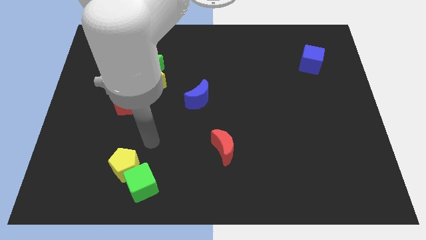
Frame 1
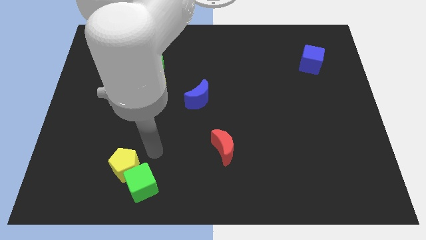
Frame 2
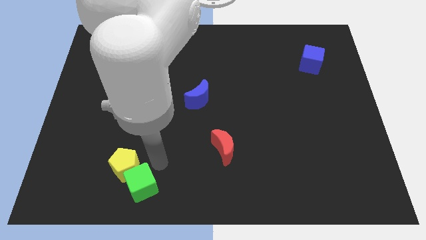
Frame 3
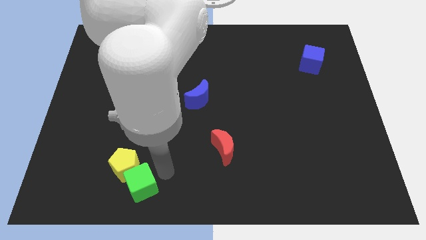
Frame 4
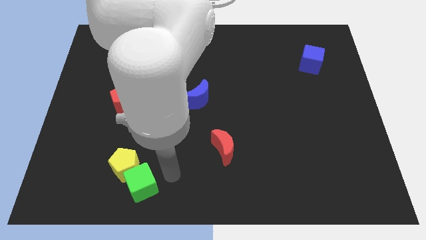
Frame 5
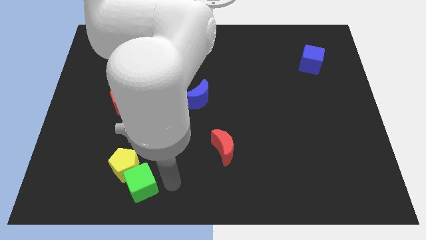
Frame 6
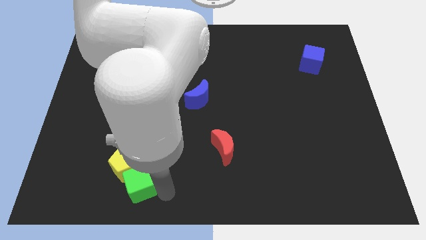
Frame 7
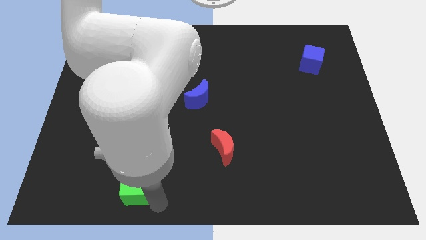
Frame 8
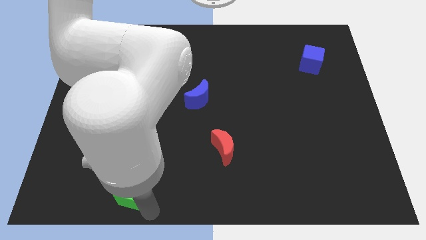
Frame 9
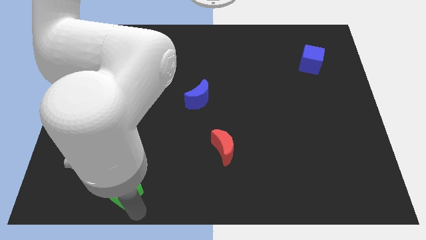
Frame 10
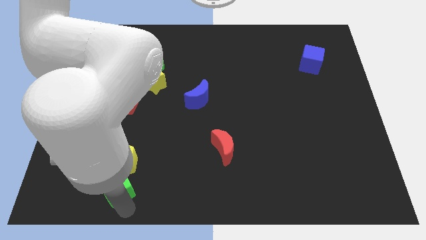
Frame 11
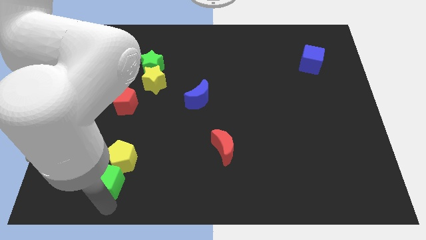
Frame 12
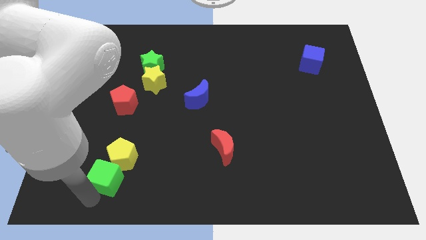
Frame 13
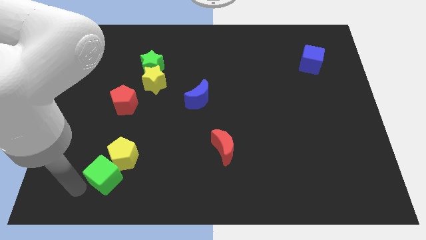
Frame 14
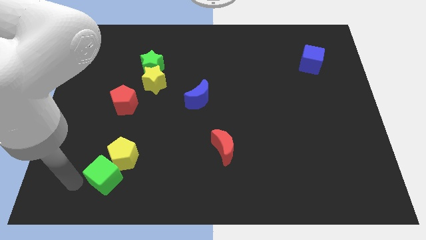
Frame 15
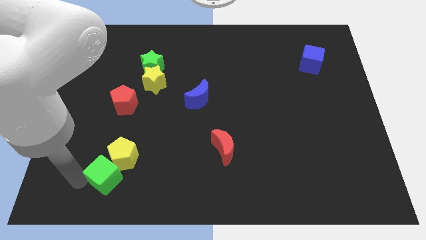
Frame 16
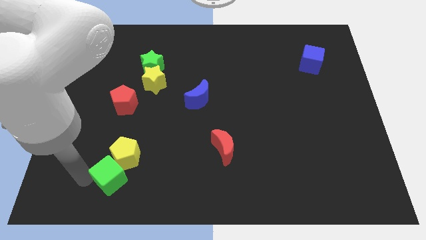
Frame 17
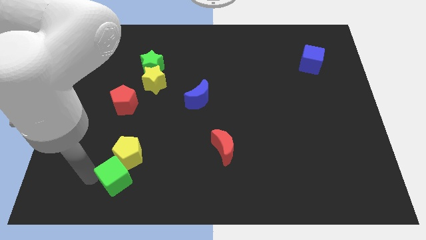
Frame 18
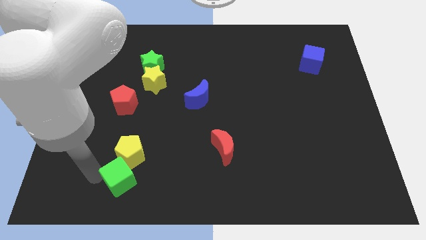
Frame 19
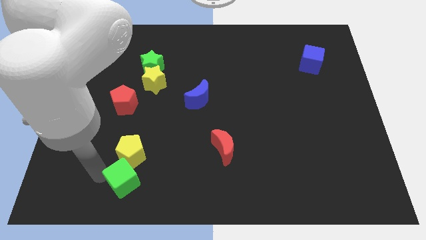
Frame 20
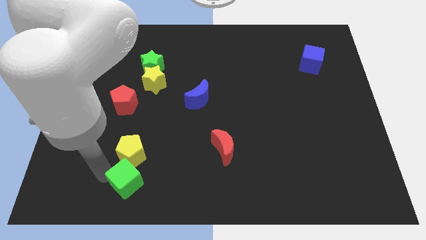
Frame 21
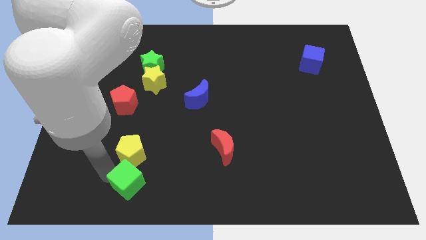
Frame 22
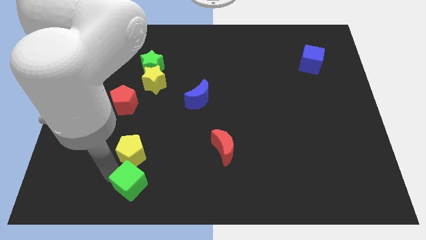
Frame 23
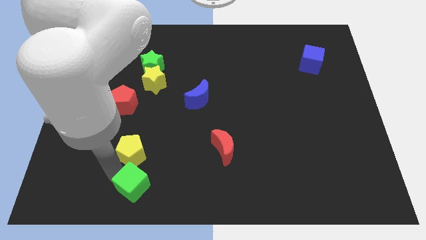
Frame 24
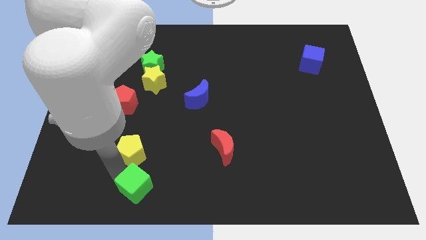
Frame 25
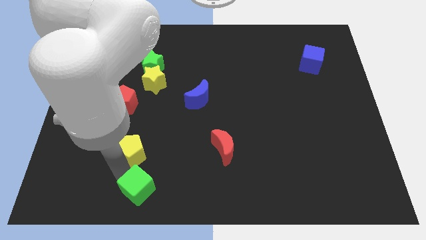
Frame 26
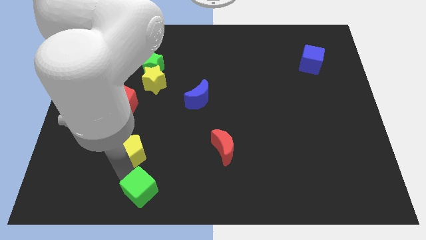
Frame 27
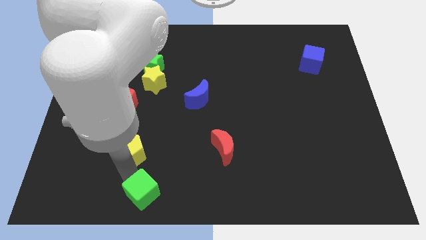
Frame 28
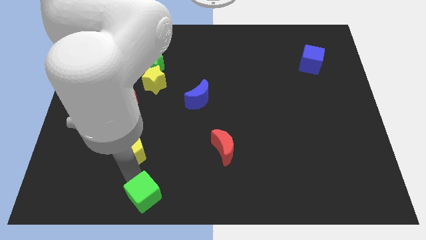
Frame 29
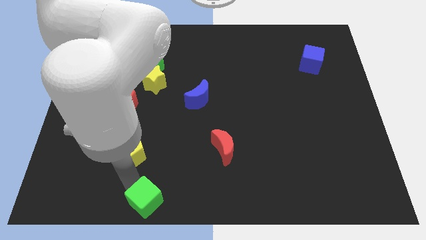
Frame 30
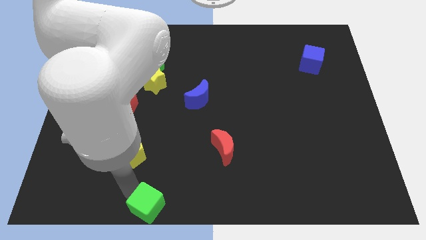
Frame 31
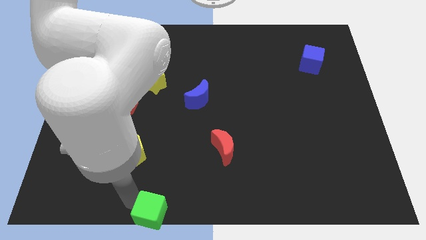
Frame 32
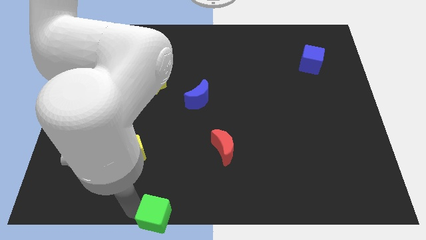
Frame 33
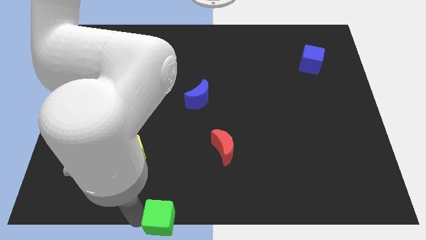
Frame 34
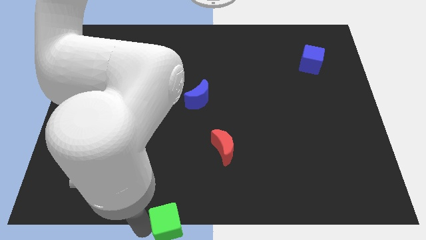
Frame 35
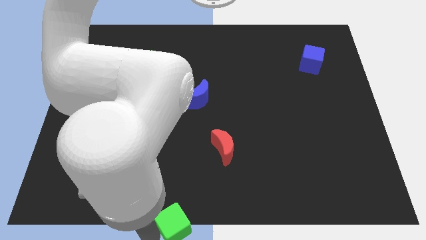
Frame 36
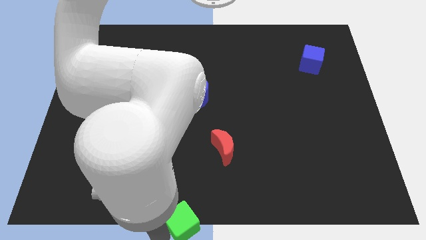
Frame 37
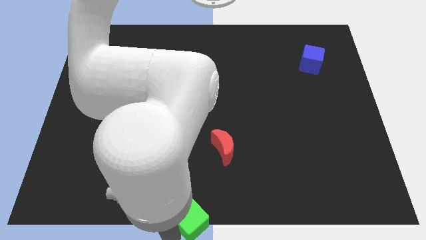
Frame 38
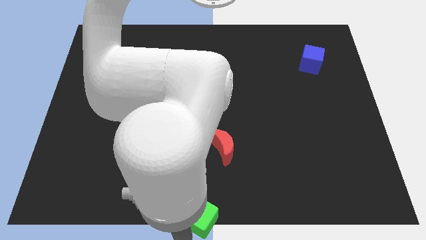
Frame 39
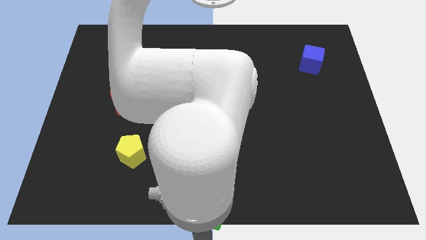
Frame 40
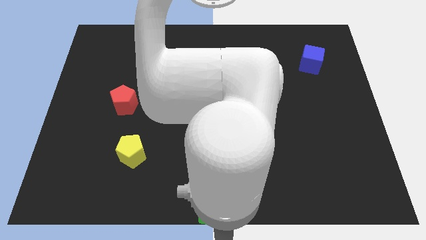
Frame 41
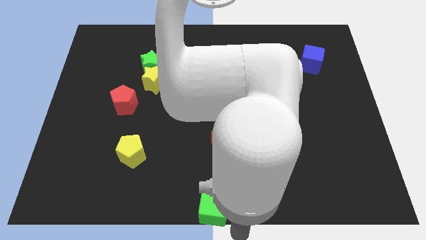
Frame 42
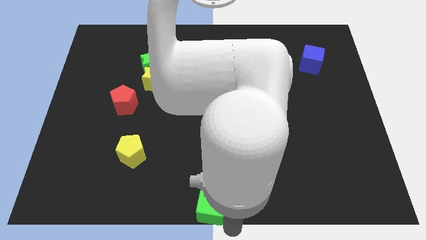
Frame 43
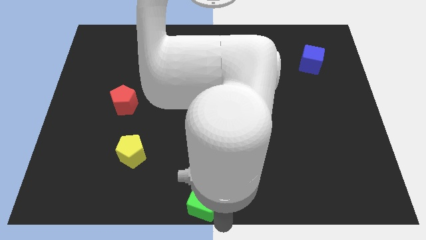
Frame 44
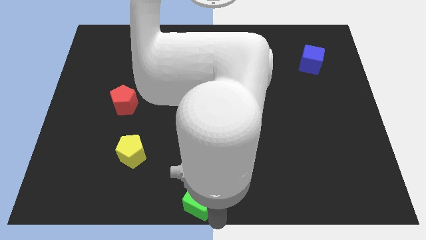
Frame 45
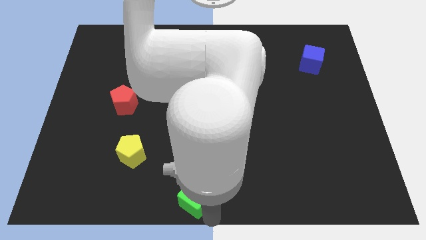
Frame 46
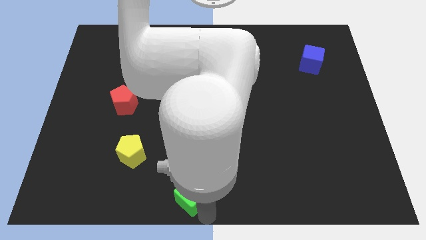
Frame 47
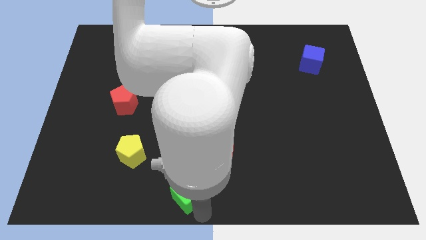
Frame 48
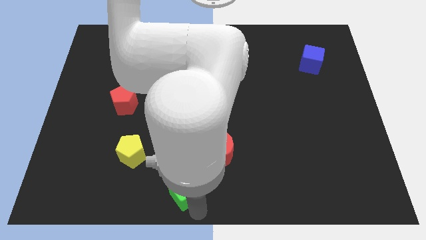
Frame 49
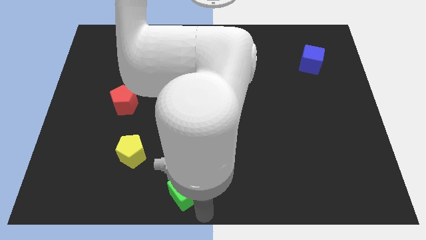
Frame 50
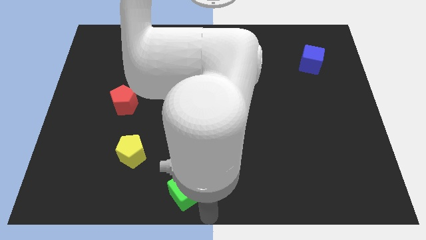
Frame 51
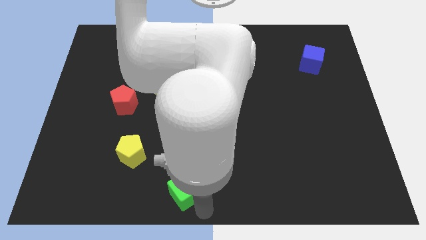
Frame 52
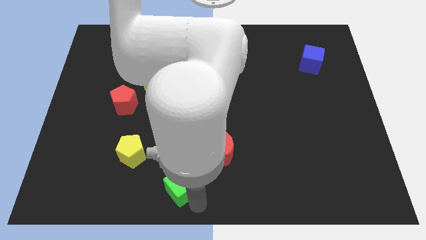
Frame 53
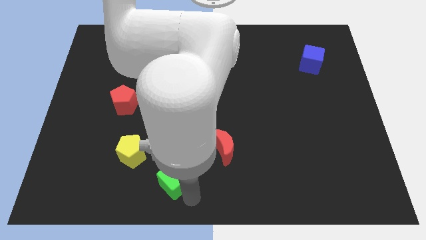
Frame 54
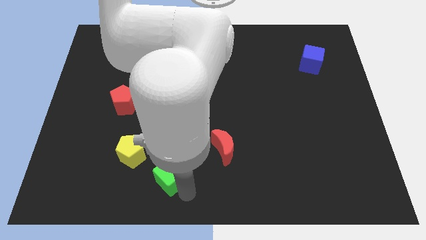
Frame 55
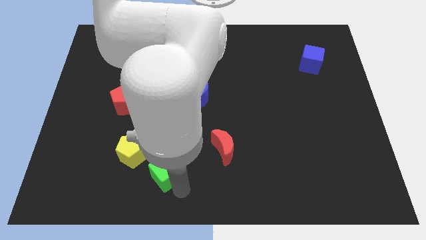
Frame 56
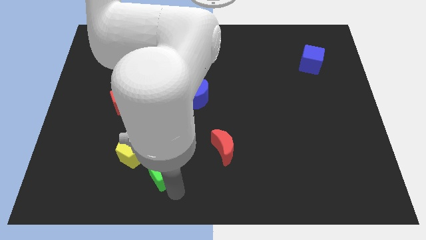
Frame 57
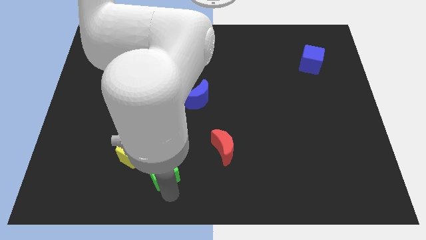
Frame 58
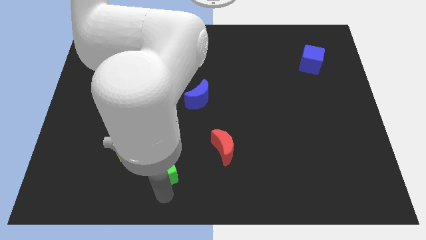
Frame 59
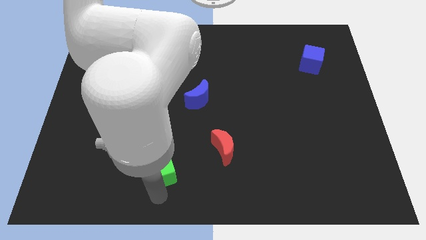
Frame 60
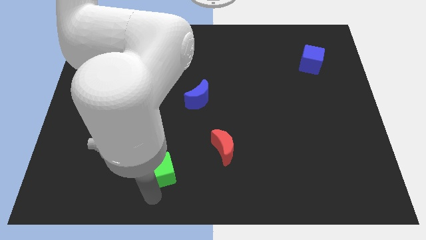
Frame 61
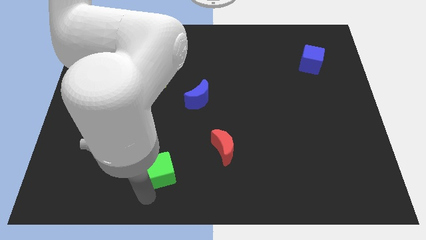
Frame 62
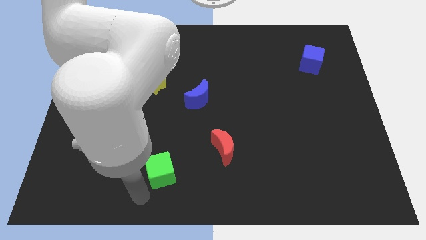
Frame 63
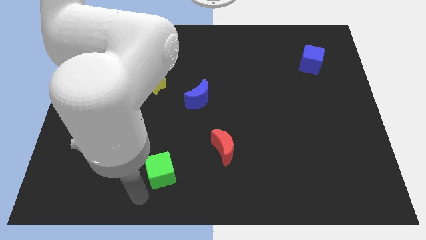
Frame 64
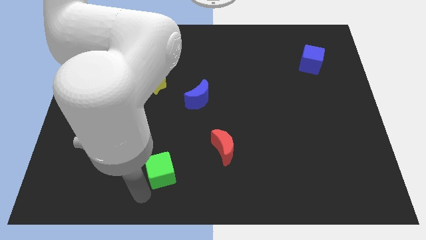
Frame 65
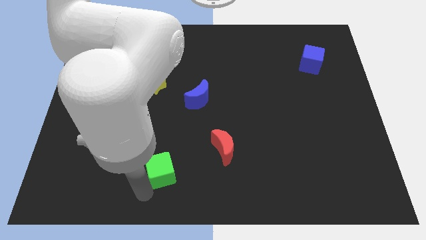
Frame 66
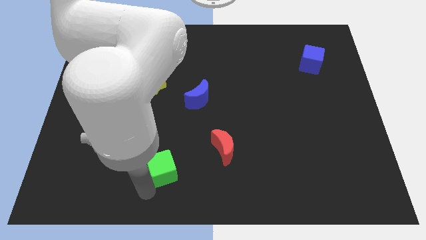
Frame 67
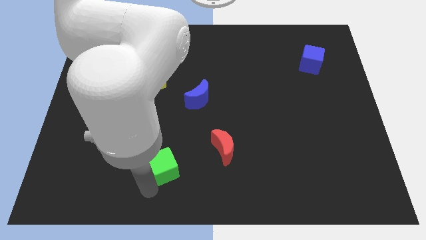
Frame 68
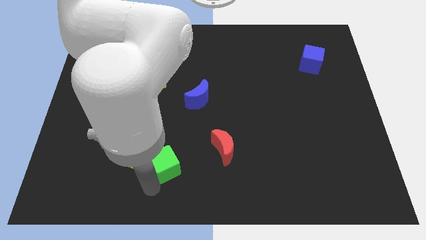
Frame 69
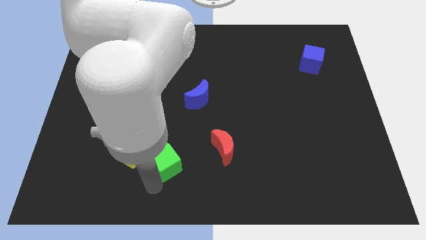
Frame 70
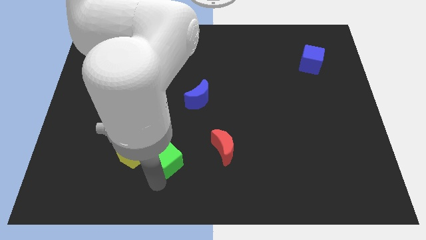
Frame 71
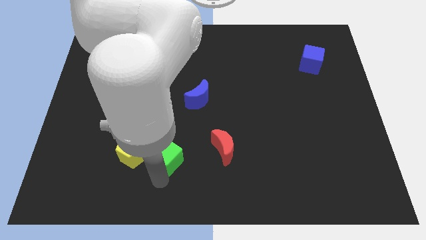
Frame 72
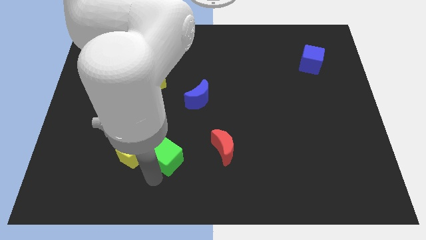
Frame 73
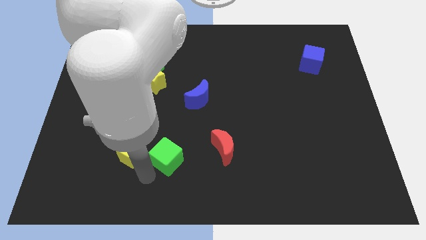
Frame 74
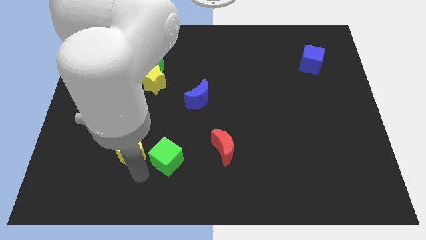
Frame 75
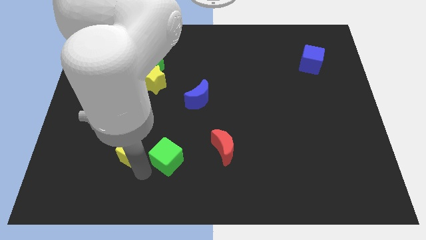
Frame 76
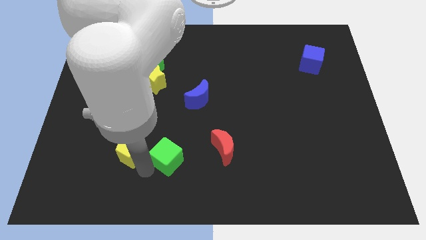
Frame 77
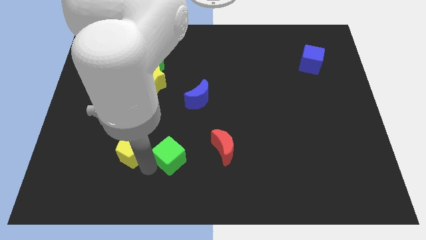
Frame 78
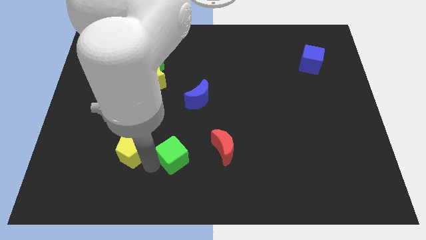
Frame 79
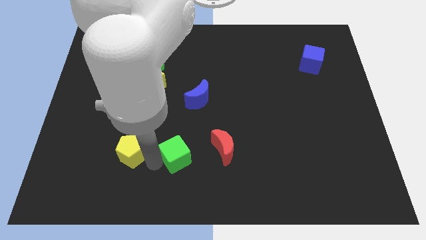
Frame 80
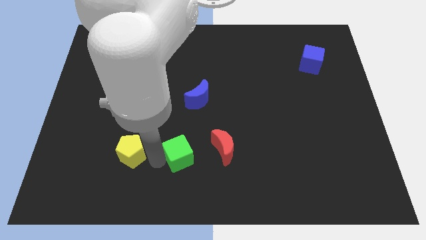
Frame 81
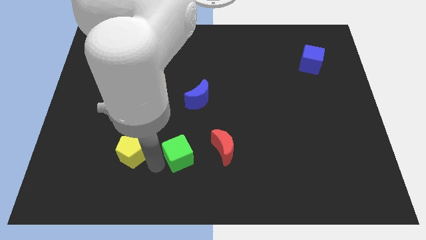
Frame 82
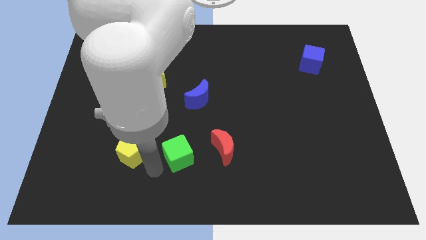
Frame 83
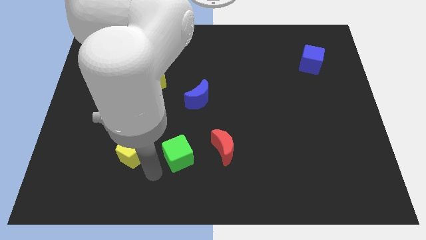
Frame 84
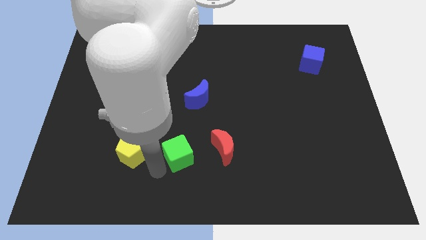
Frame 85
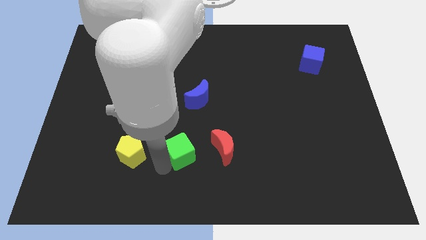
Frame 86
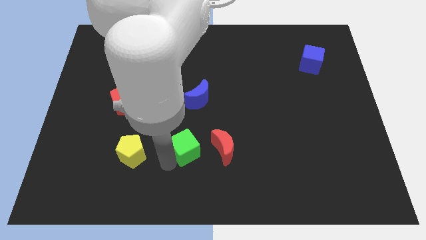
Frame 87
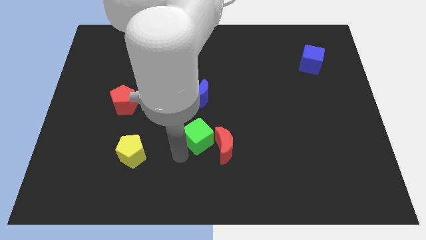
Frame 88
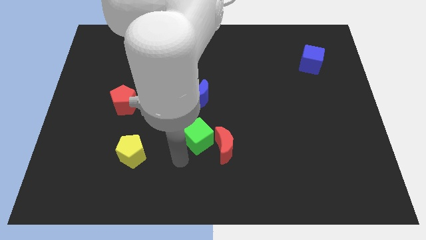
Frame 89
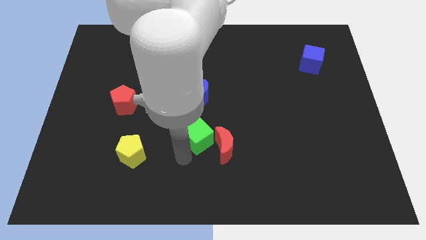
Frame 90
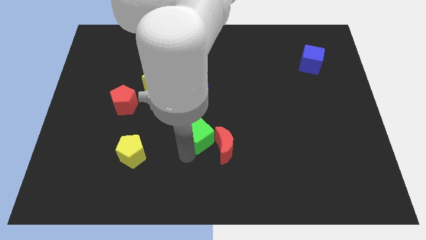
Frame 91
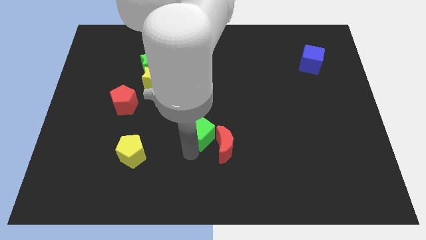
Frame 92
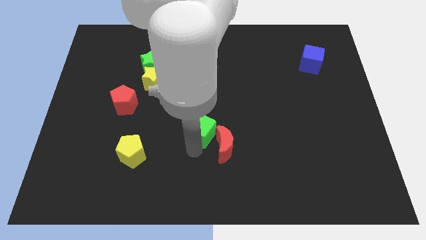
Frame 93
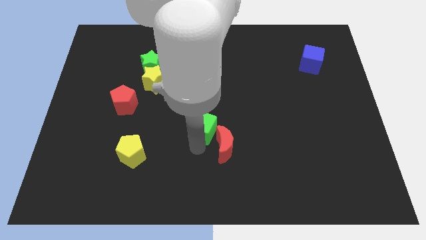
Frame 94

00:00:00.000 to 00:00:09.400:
move the green cube to the top side of the red moon
